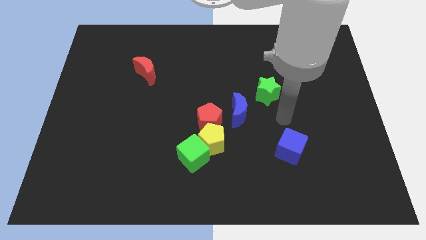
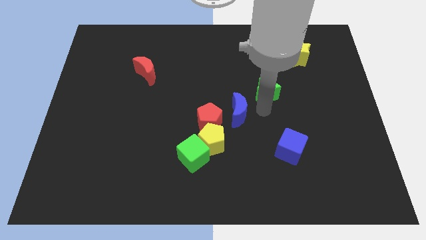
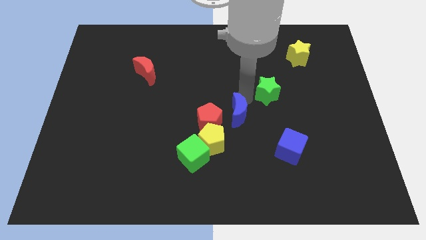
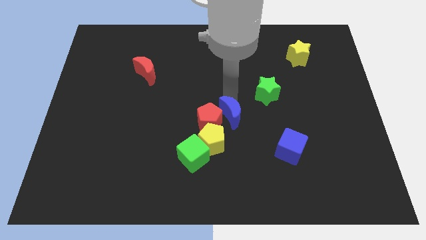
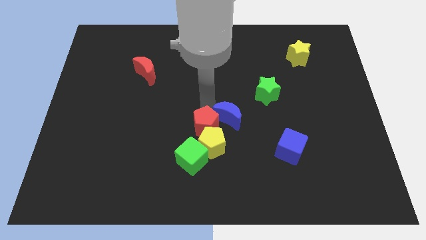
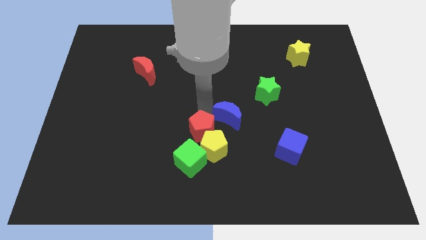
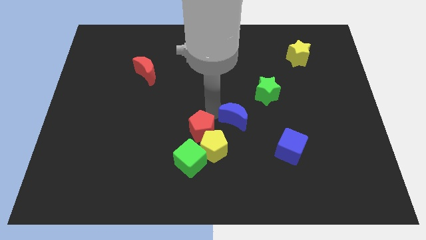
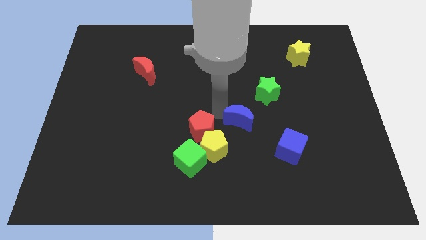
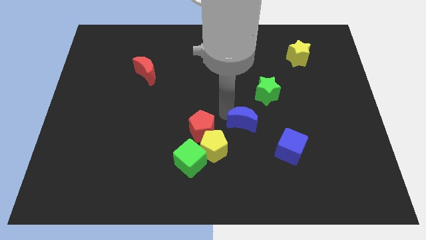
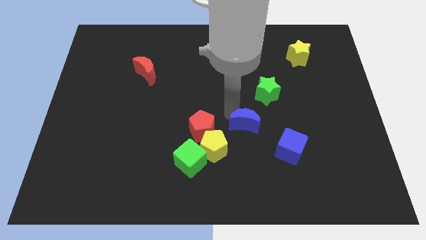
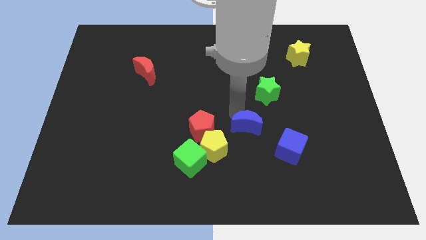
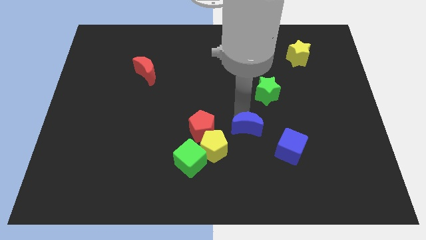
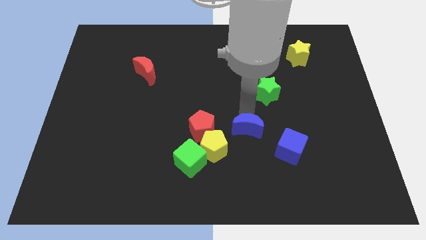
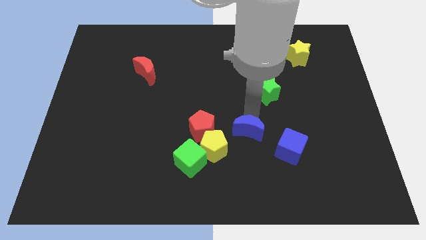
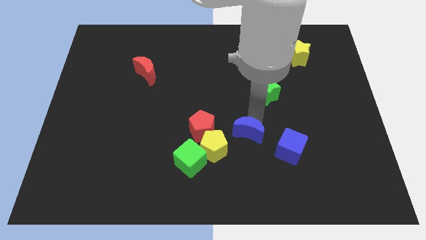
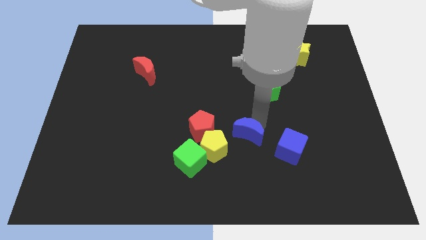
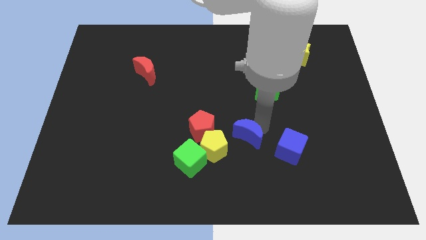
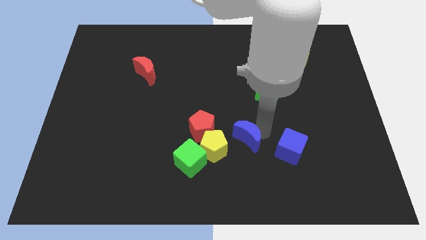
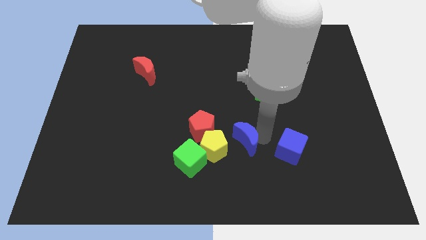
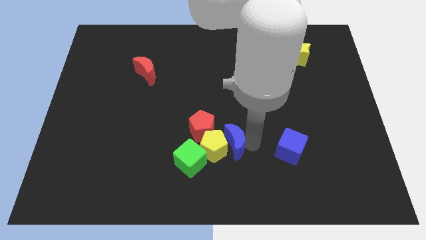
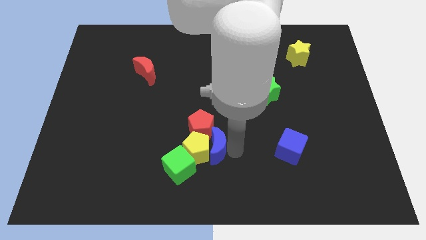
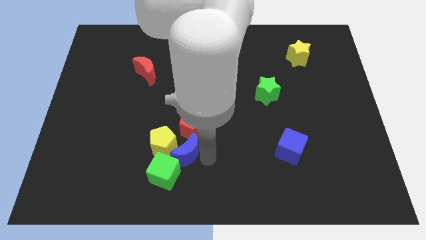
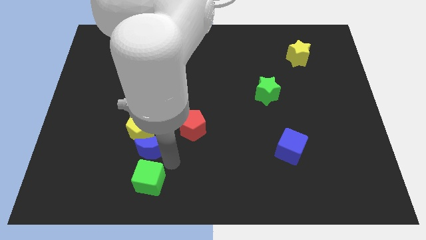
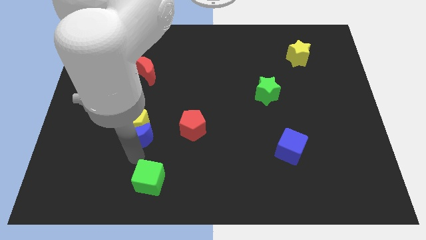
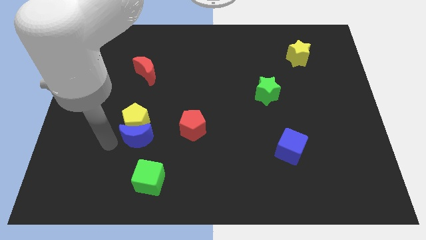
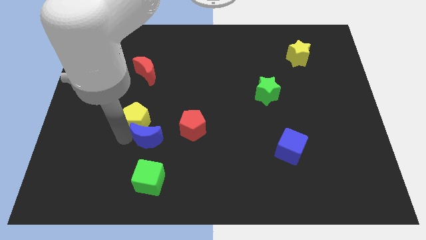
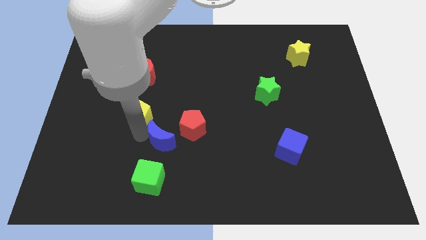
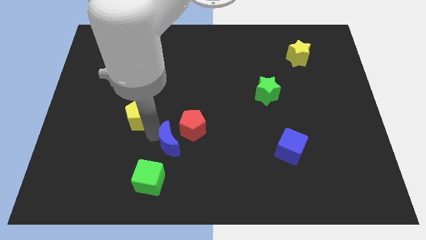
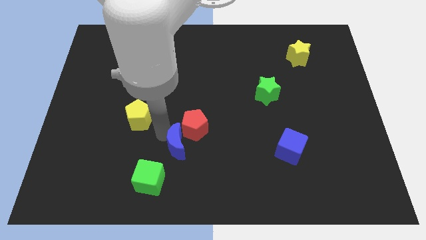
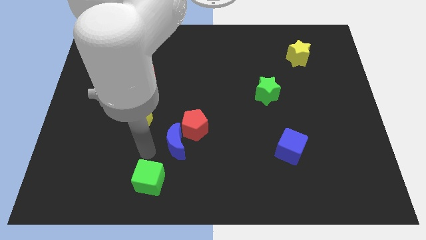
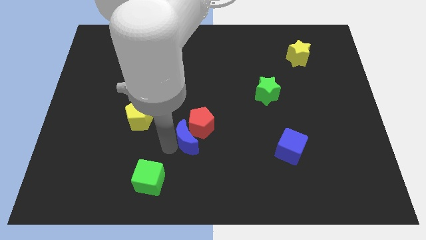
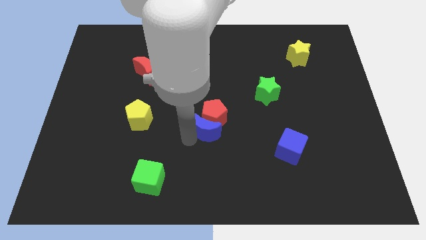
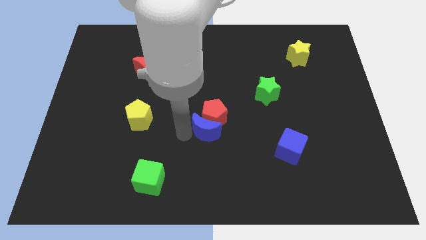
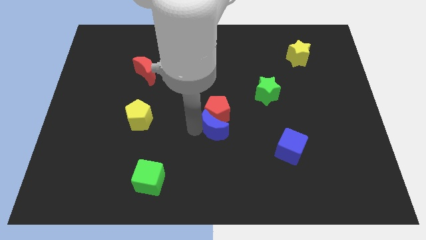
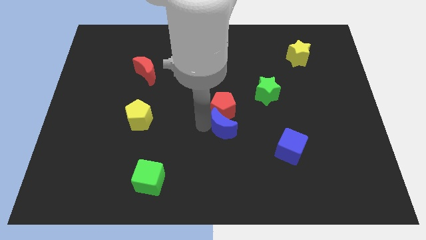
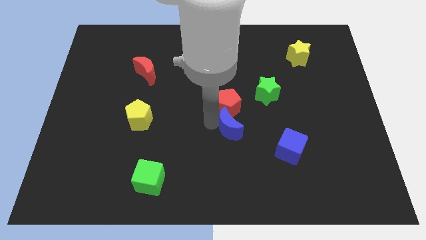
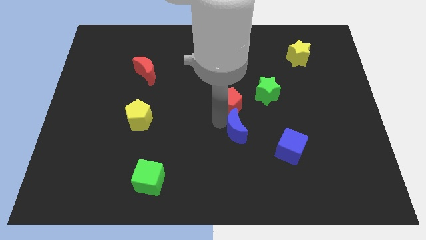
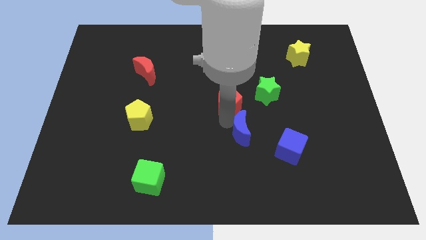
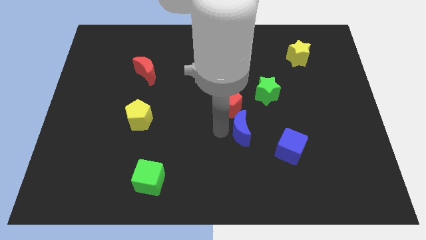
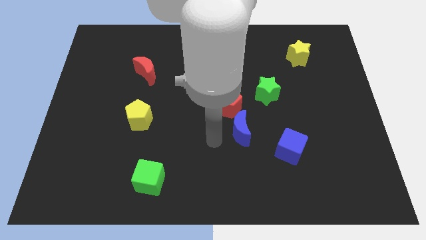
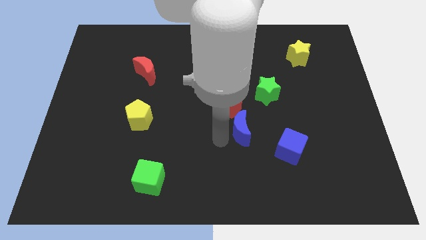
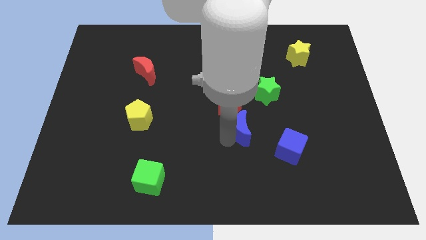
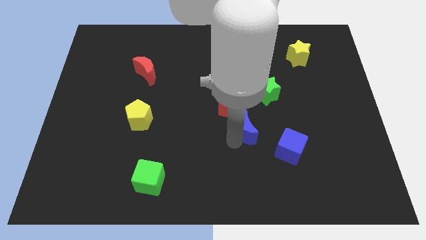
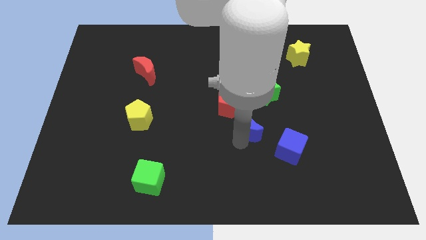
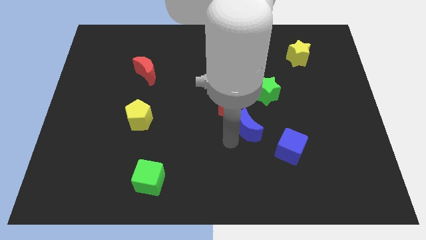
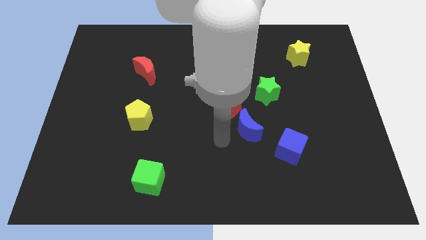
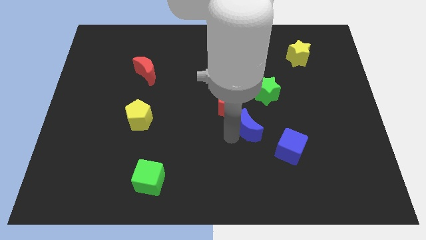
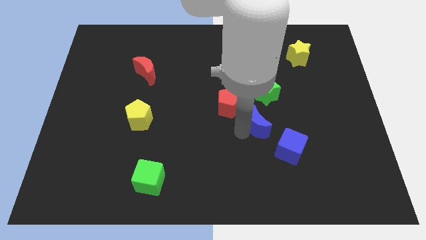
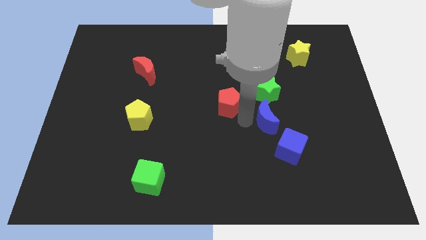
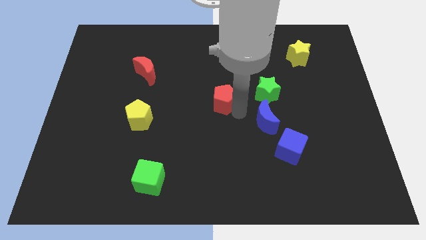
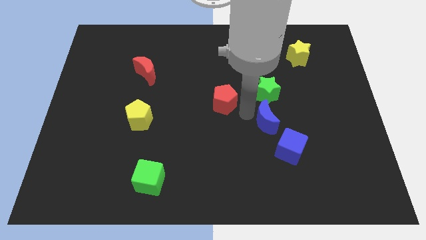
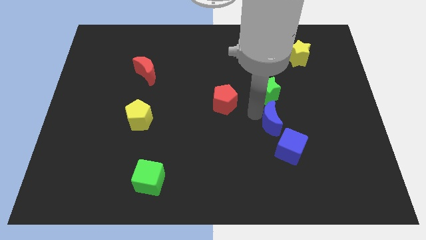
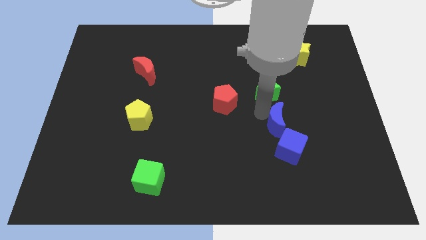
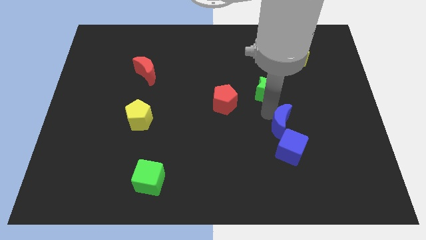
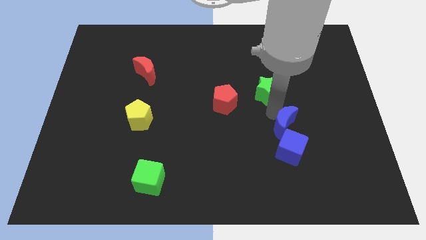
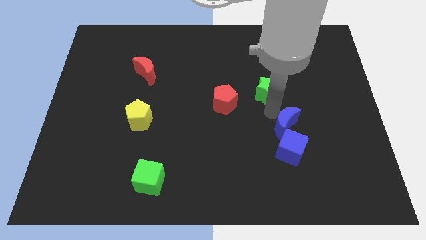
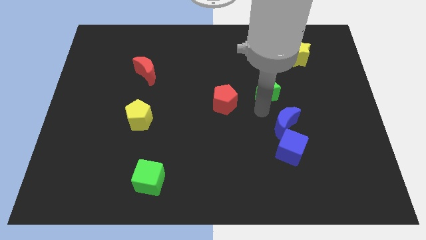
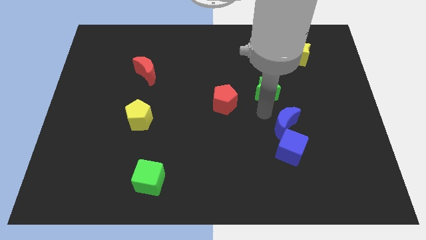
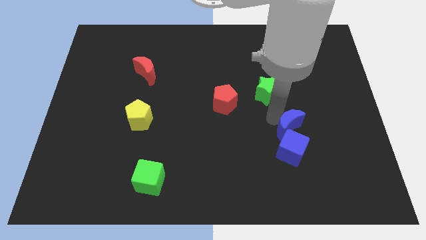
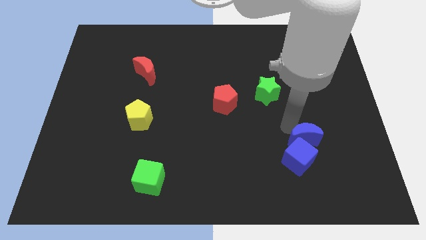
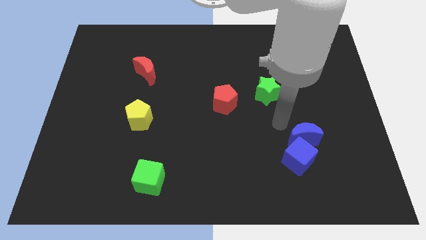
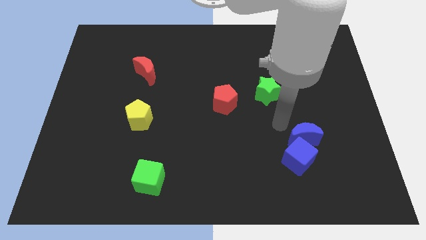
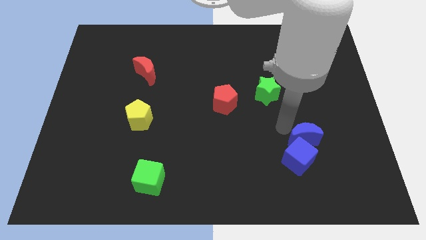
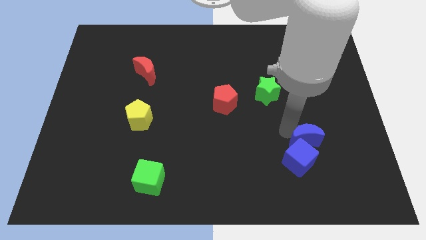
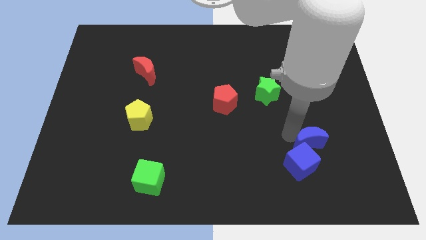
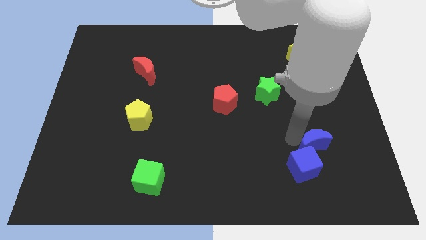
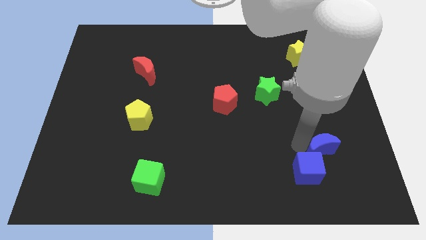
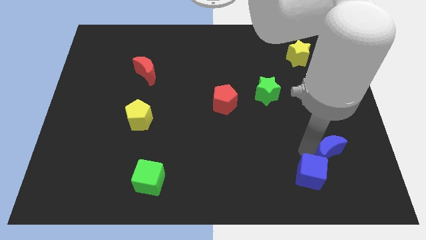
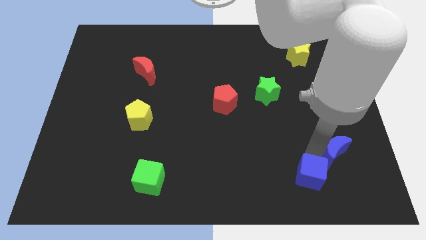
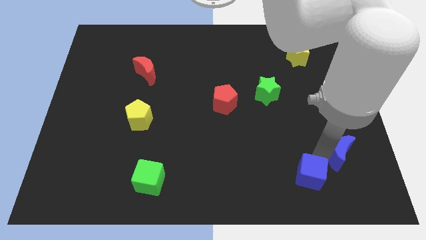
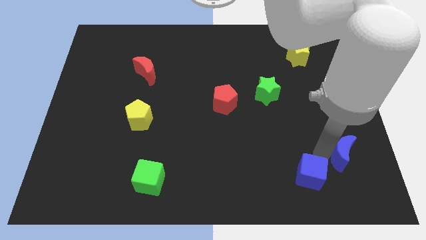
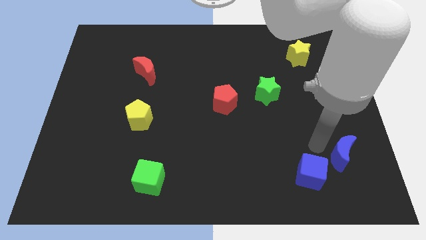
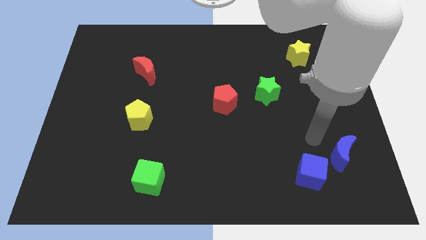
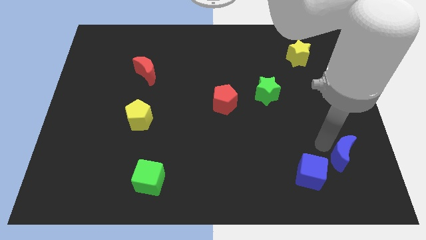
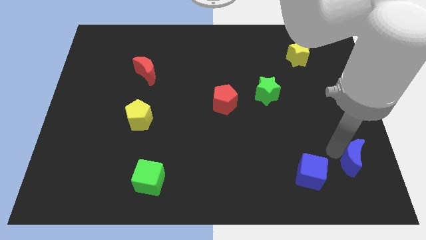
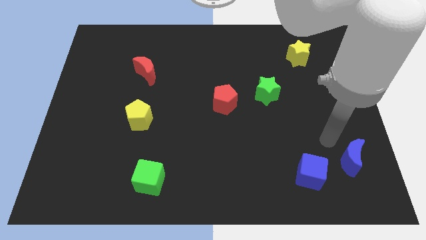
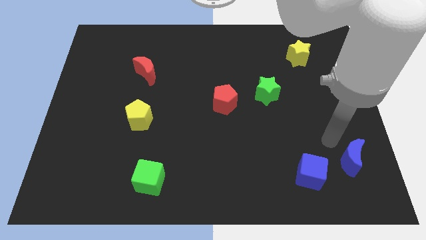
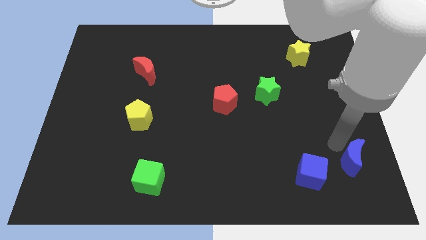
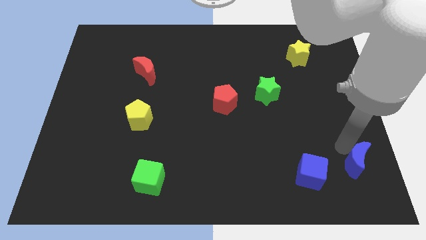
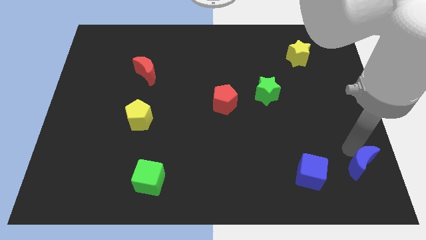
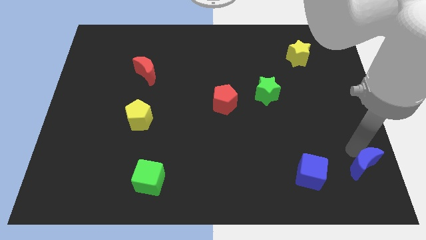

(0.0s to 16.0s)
put the blue moon to the lower right corner
